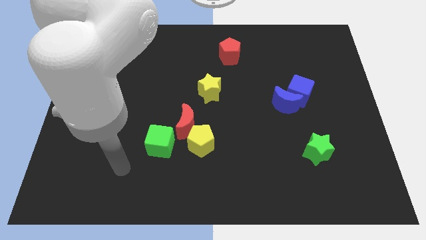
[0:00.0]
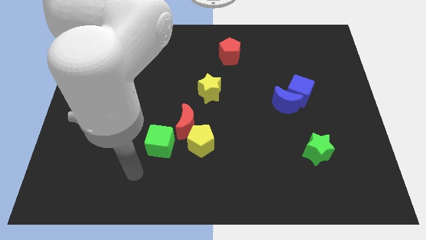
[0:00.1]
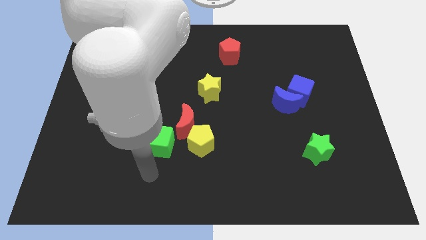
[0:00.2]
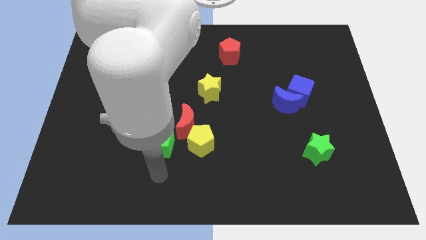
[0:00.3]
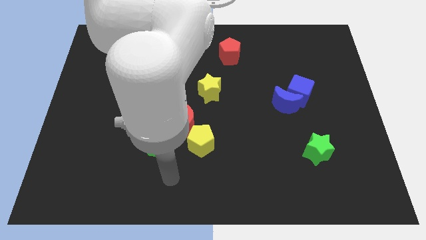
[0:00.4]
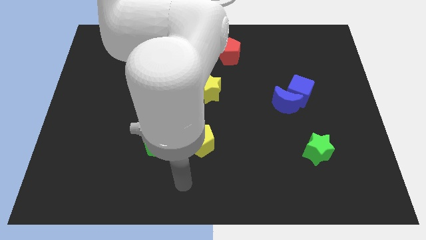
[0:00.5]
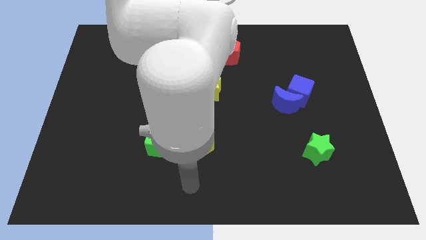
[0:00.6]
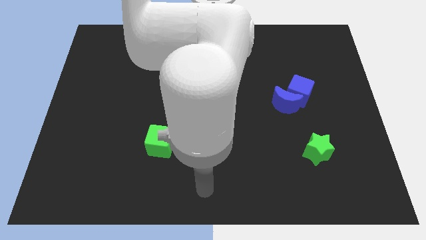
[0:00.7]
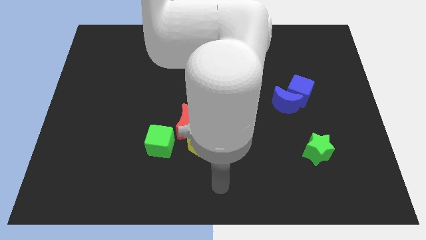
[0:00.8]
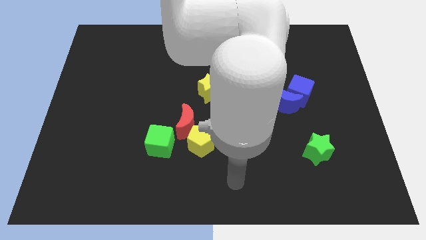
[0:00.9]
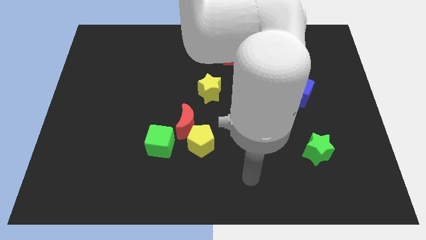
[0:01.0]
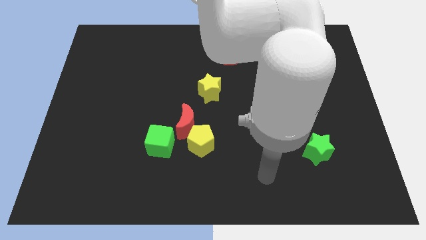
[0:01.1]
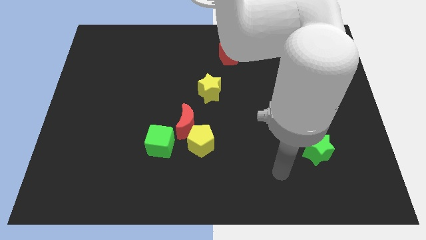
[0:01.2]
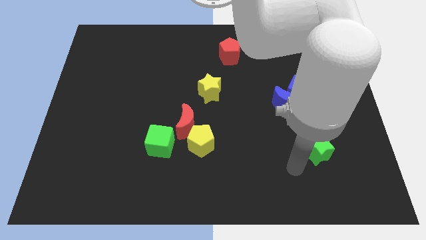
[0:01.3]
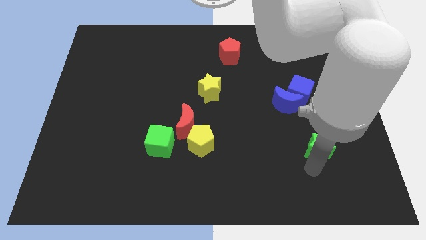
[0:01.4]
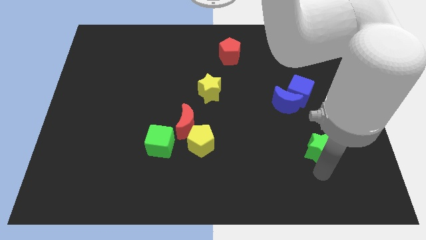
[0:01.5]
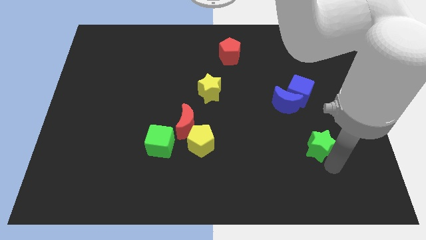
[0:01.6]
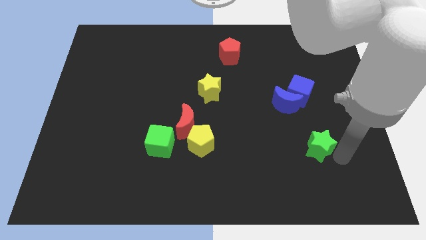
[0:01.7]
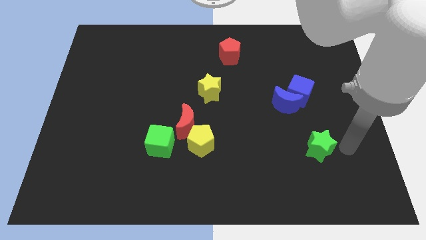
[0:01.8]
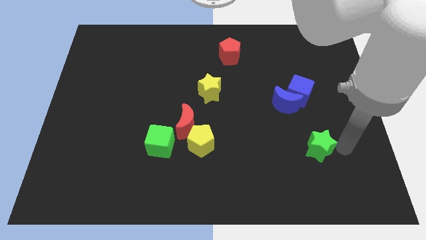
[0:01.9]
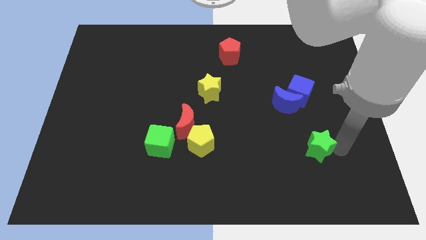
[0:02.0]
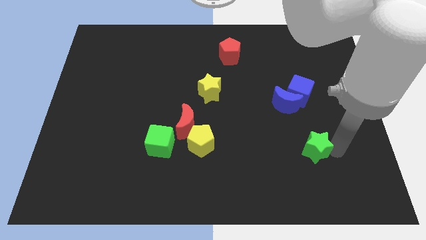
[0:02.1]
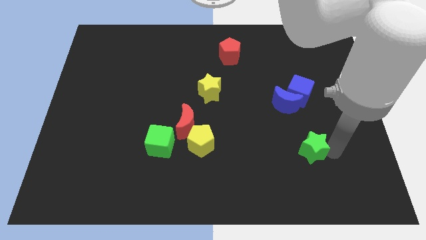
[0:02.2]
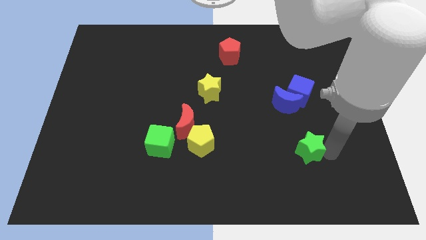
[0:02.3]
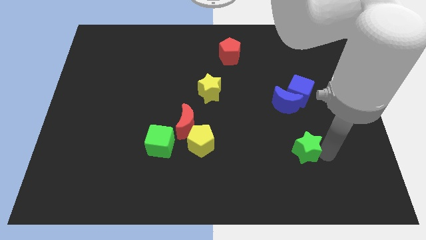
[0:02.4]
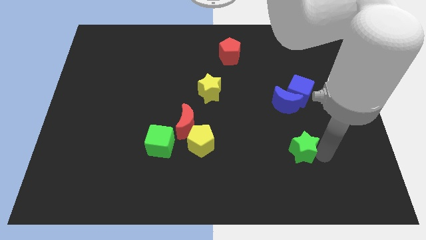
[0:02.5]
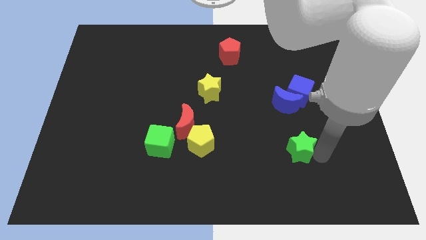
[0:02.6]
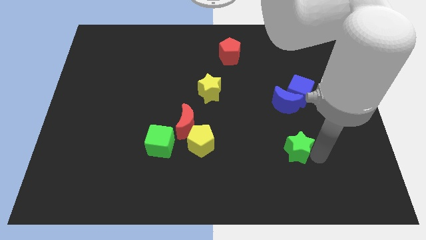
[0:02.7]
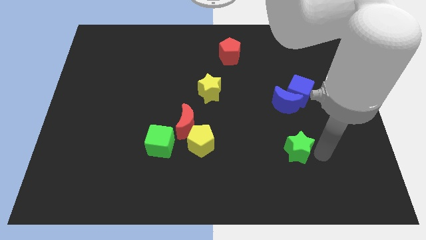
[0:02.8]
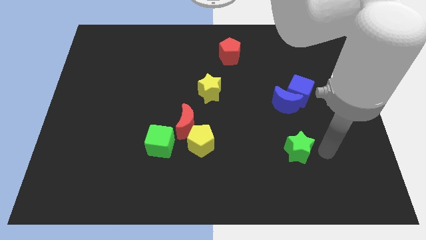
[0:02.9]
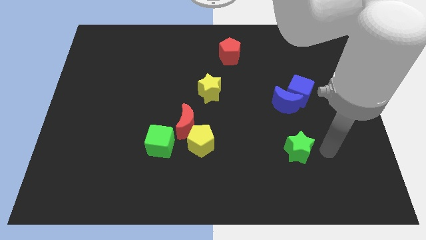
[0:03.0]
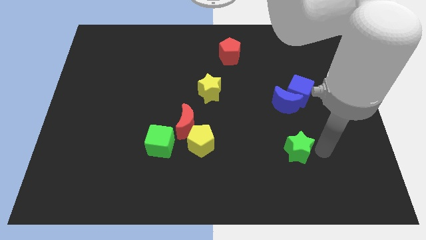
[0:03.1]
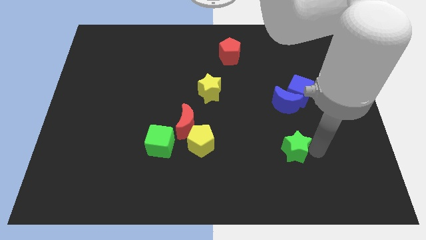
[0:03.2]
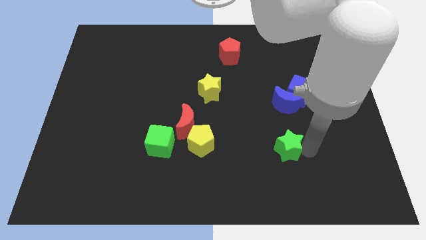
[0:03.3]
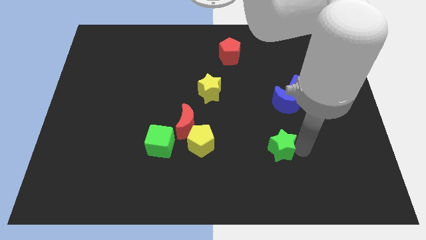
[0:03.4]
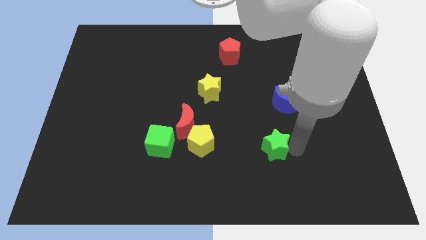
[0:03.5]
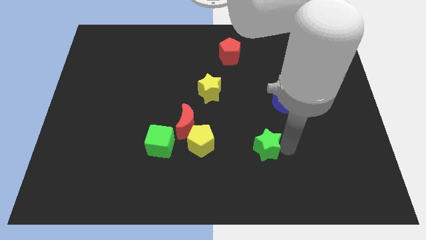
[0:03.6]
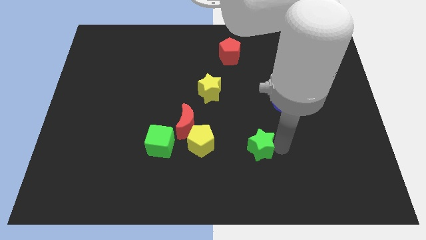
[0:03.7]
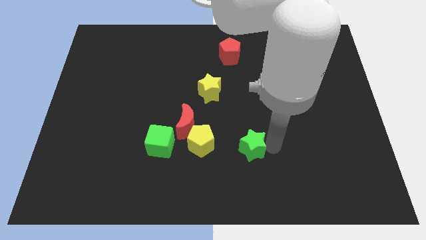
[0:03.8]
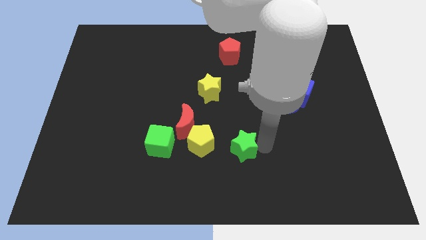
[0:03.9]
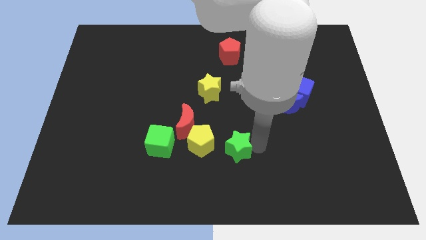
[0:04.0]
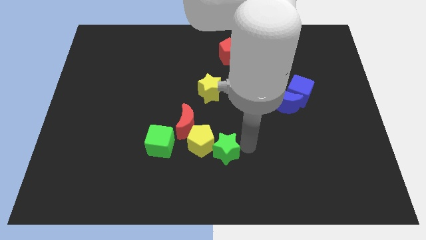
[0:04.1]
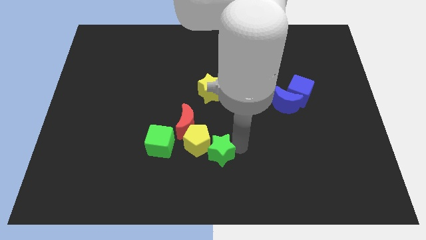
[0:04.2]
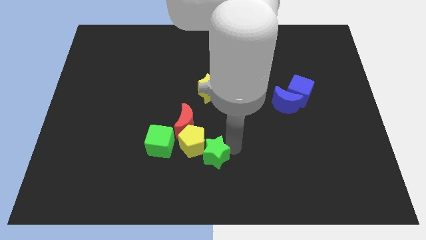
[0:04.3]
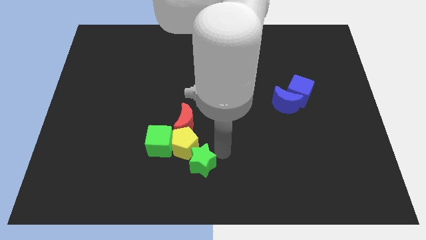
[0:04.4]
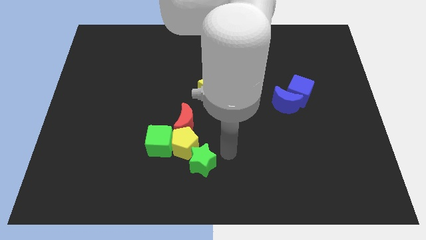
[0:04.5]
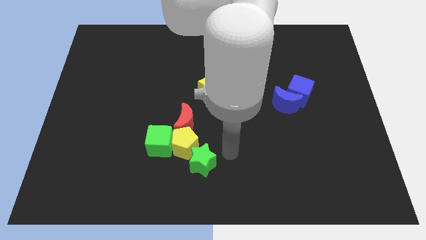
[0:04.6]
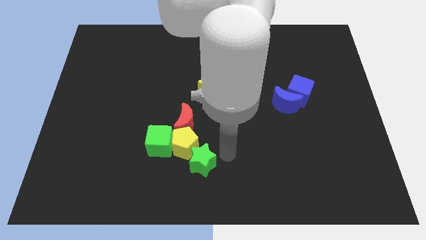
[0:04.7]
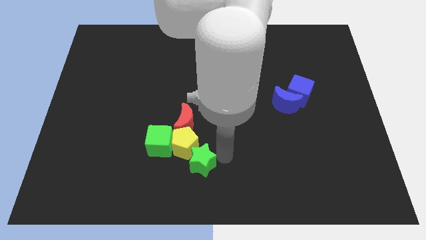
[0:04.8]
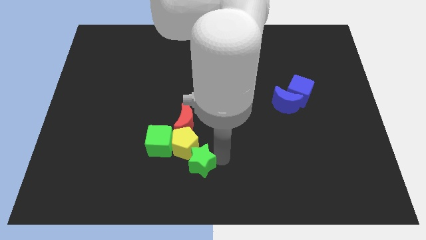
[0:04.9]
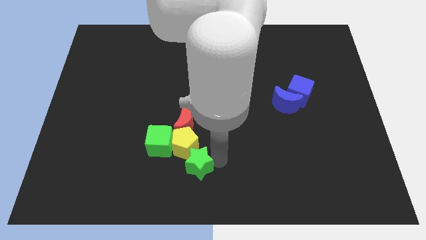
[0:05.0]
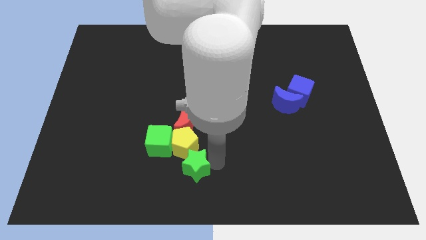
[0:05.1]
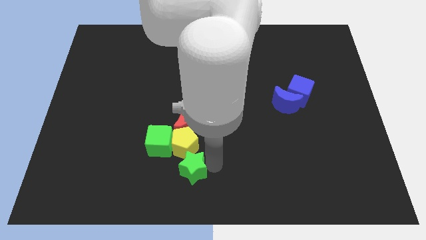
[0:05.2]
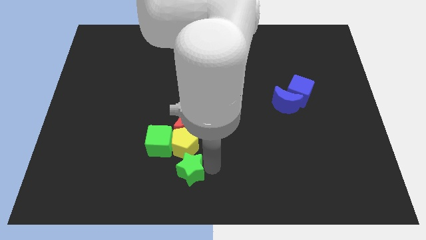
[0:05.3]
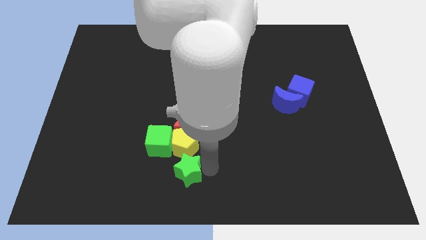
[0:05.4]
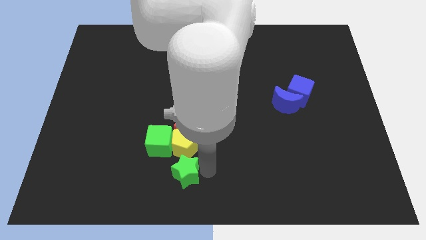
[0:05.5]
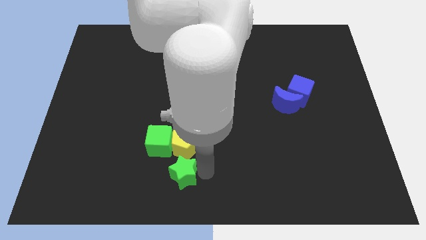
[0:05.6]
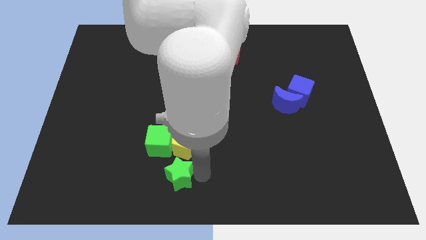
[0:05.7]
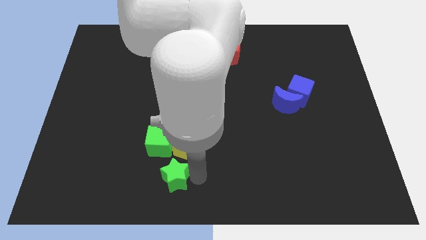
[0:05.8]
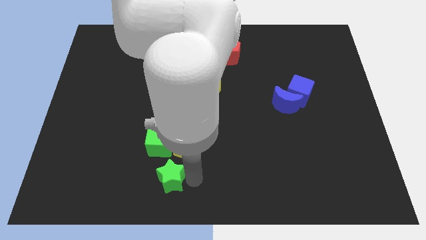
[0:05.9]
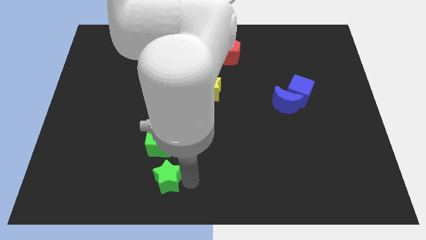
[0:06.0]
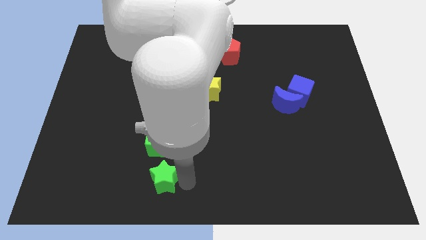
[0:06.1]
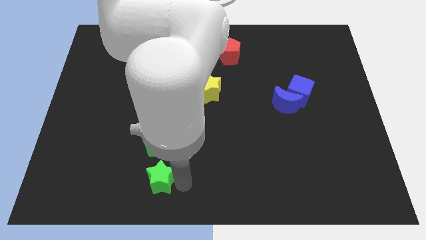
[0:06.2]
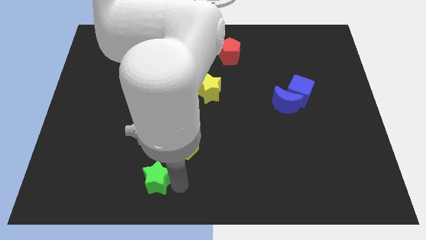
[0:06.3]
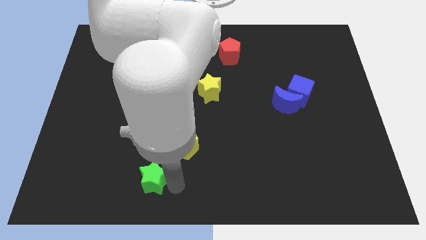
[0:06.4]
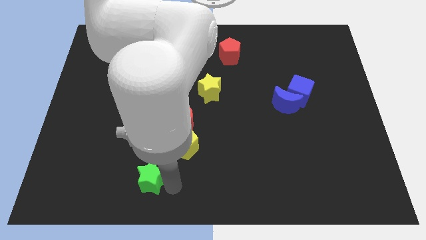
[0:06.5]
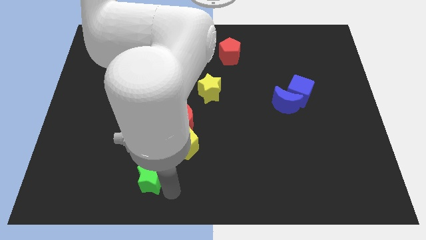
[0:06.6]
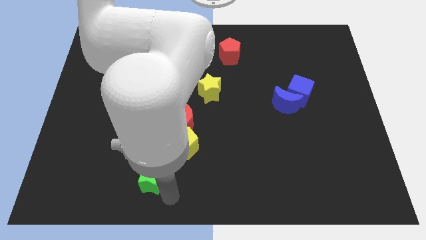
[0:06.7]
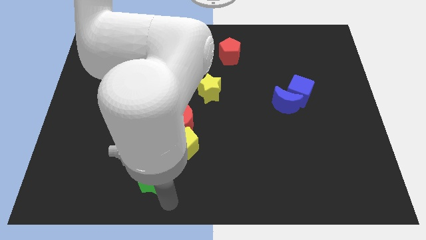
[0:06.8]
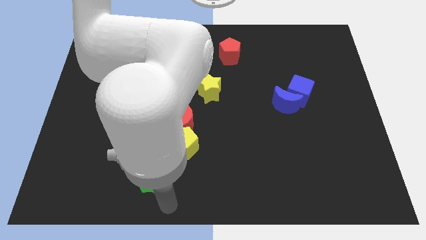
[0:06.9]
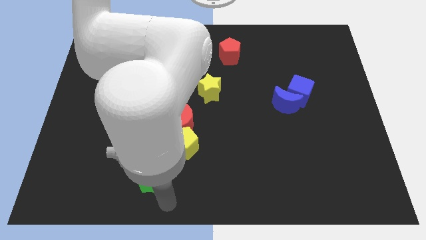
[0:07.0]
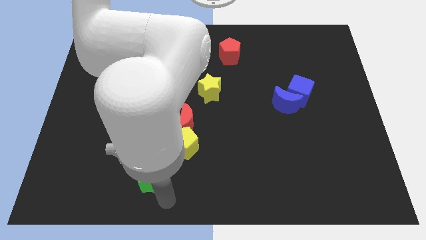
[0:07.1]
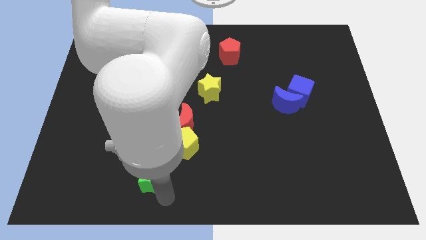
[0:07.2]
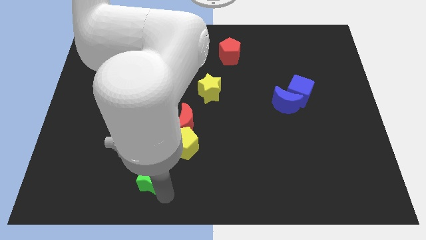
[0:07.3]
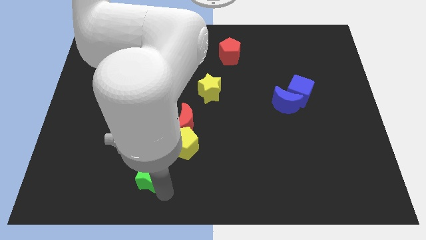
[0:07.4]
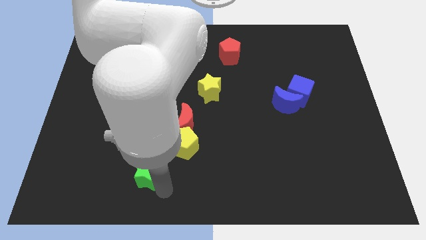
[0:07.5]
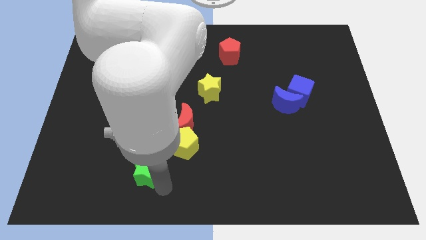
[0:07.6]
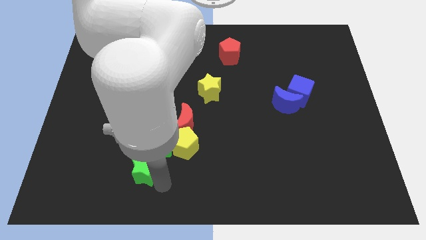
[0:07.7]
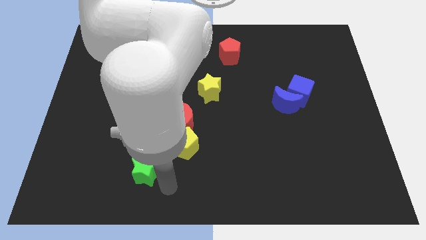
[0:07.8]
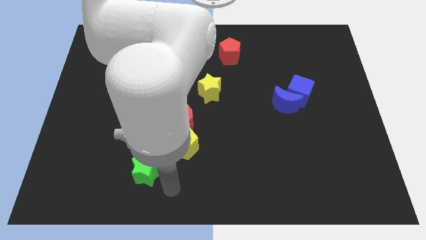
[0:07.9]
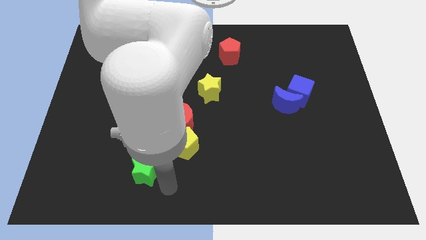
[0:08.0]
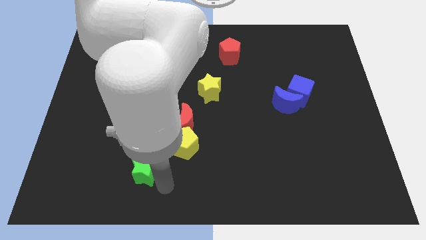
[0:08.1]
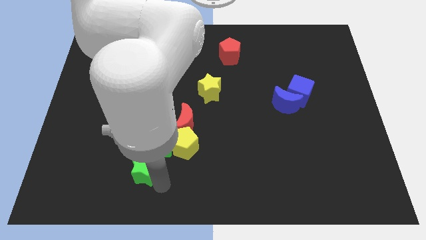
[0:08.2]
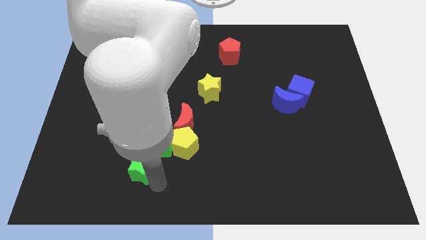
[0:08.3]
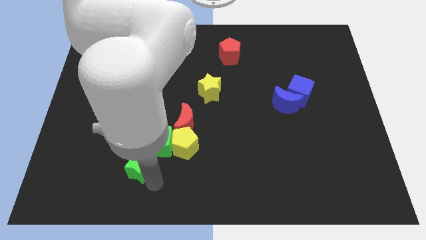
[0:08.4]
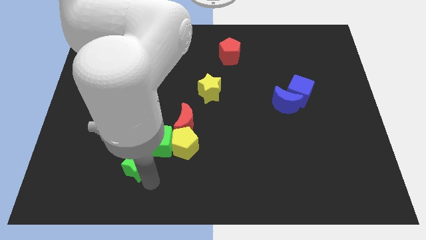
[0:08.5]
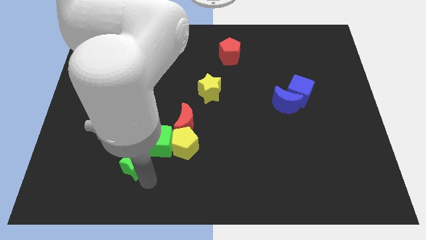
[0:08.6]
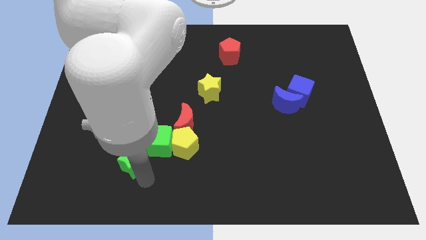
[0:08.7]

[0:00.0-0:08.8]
put the green star left of the green cube
